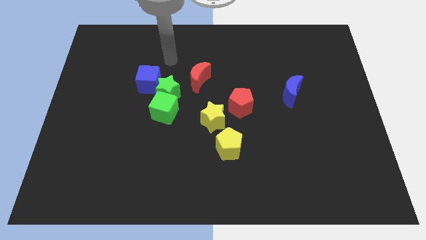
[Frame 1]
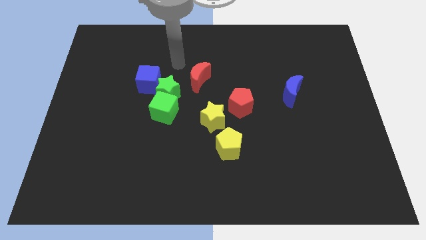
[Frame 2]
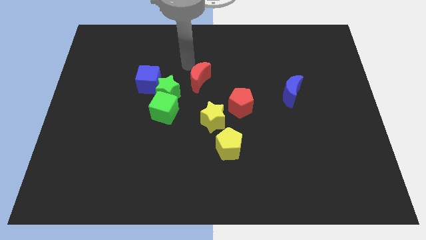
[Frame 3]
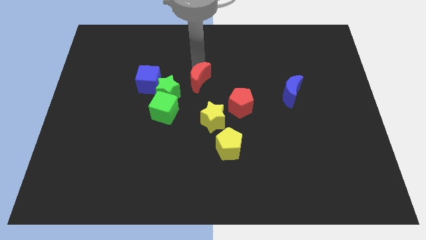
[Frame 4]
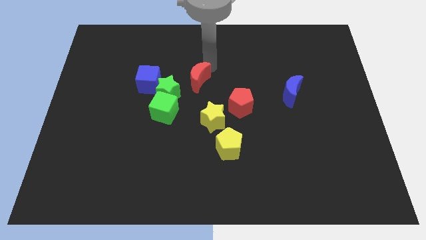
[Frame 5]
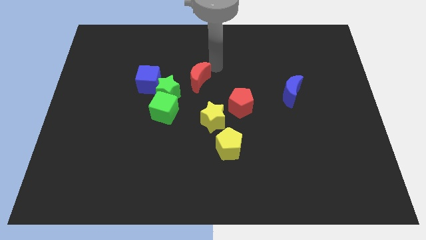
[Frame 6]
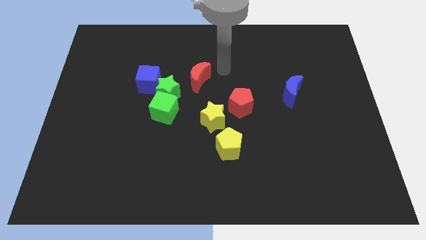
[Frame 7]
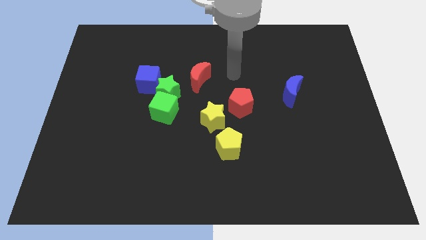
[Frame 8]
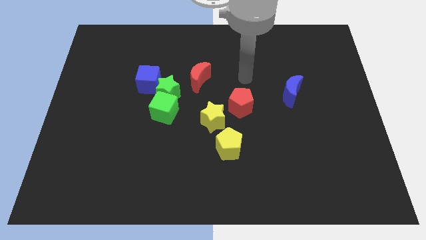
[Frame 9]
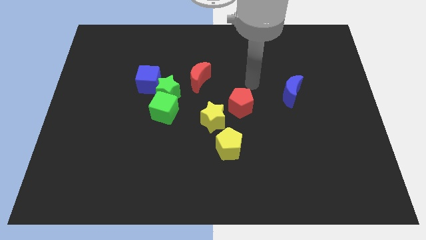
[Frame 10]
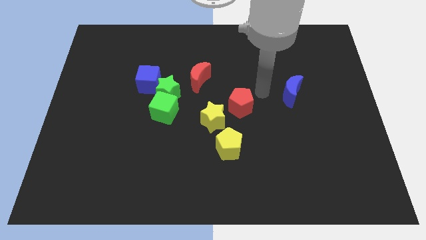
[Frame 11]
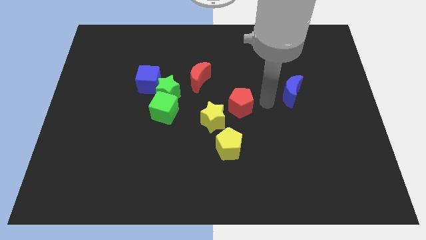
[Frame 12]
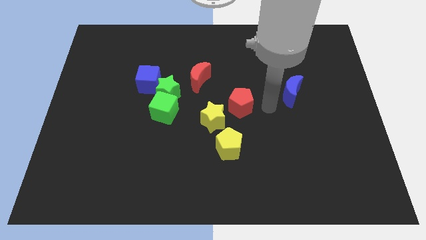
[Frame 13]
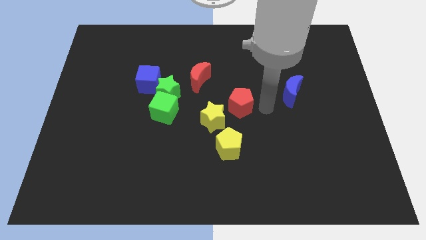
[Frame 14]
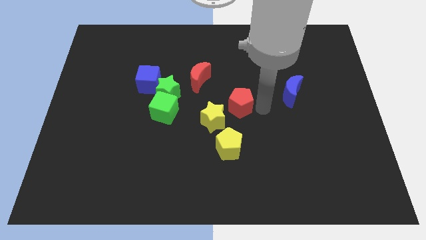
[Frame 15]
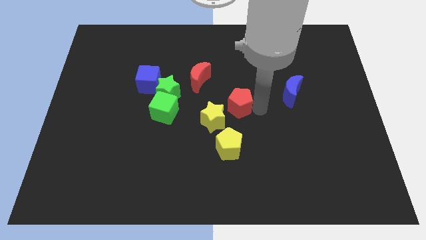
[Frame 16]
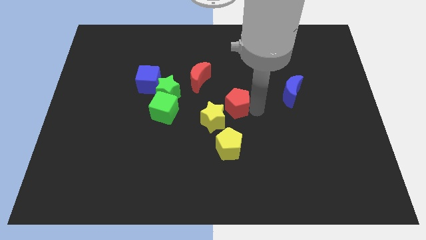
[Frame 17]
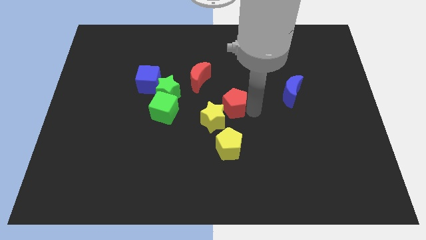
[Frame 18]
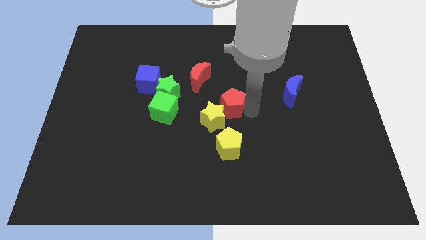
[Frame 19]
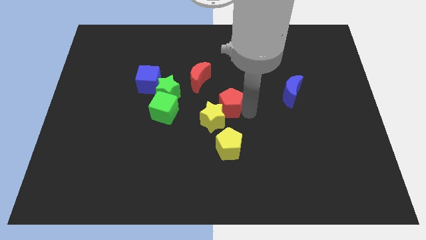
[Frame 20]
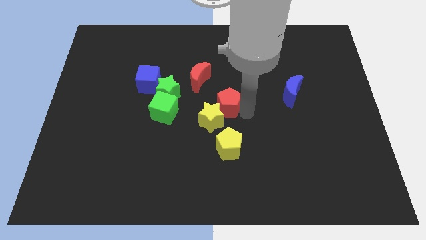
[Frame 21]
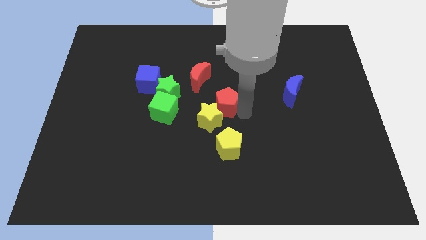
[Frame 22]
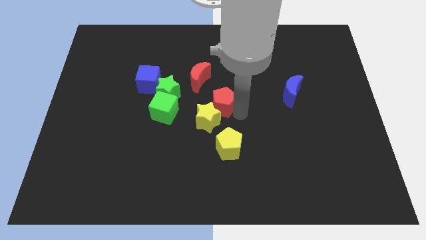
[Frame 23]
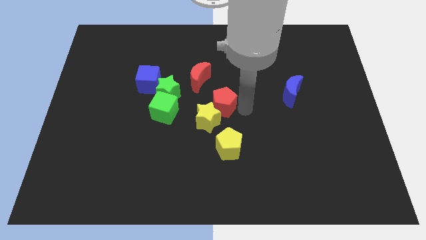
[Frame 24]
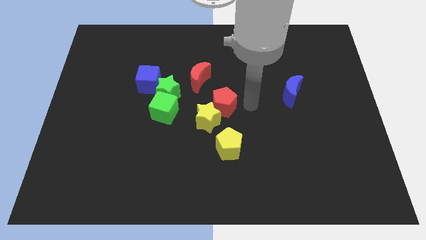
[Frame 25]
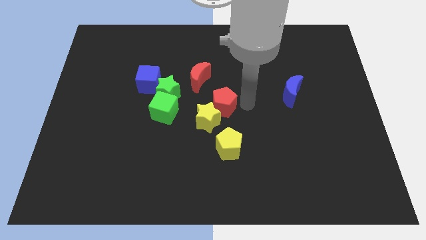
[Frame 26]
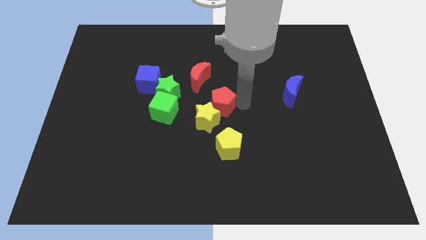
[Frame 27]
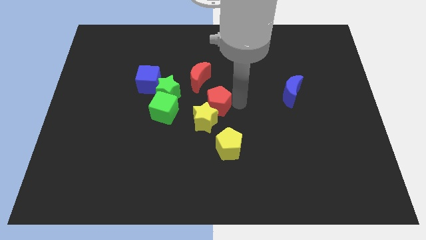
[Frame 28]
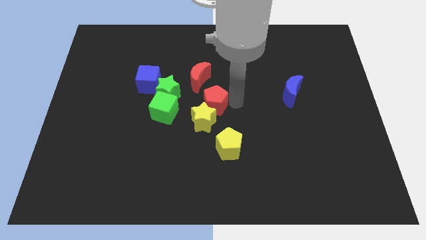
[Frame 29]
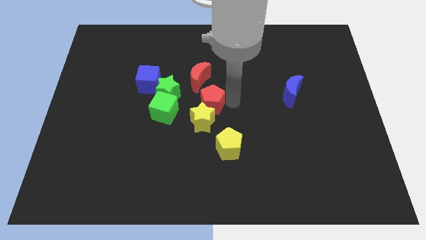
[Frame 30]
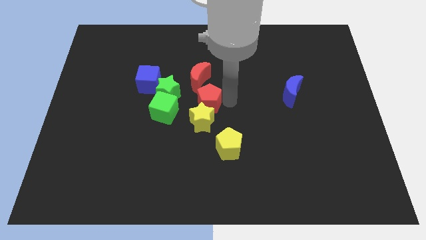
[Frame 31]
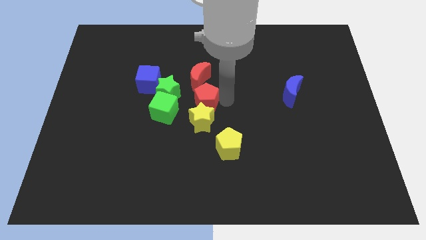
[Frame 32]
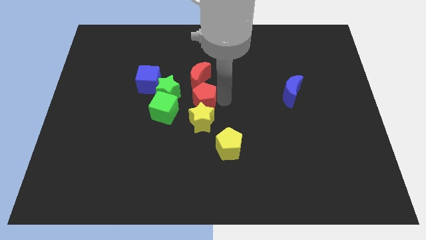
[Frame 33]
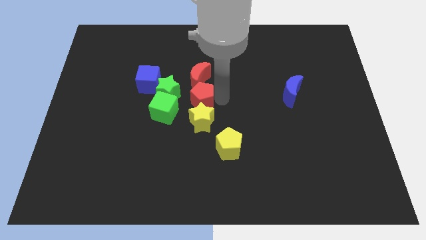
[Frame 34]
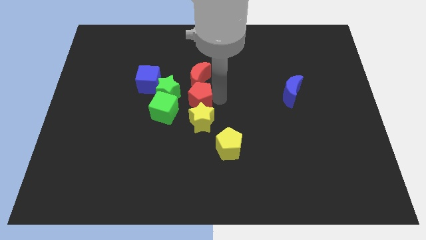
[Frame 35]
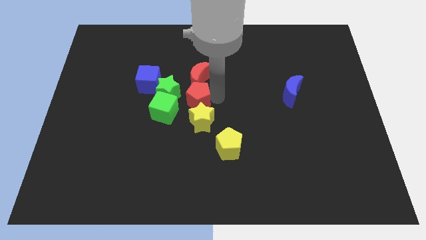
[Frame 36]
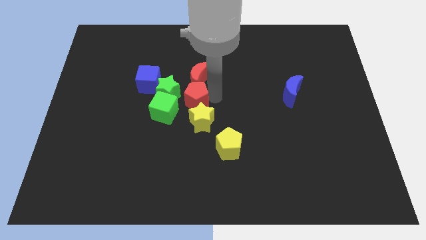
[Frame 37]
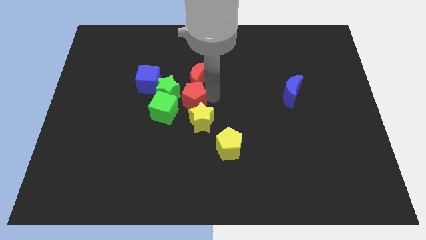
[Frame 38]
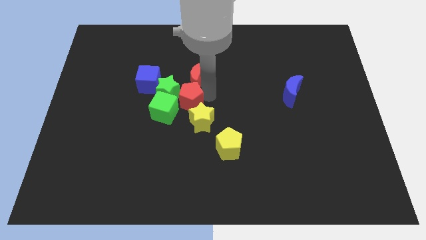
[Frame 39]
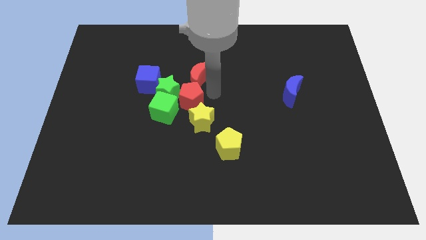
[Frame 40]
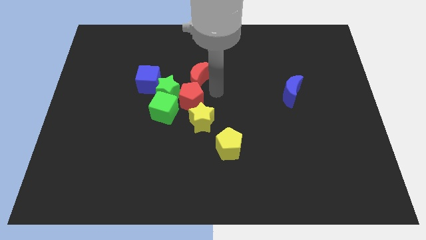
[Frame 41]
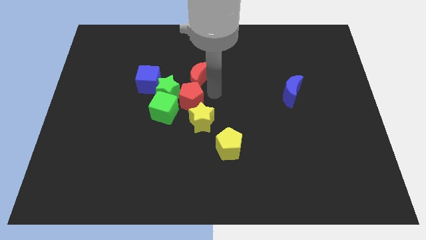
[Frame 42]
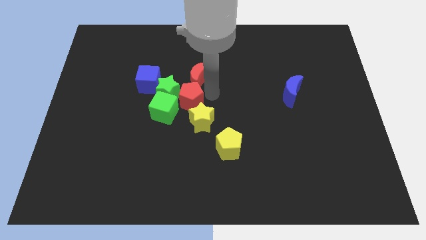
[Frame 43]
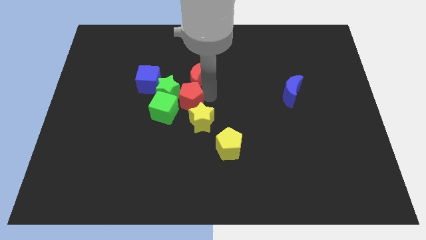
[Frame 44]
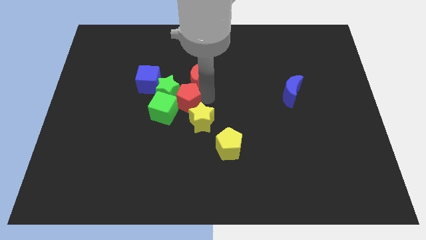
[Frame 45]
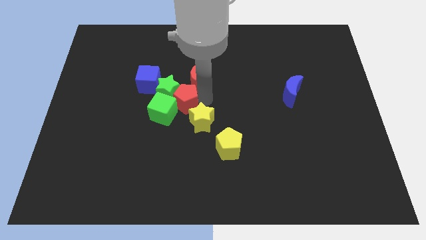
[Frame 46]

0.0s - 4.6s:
slide the red pentagon next to the green cube

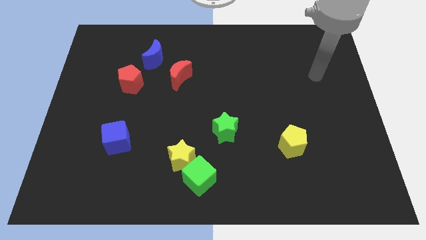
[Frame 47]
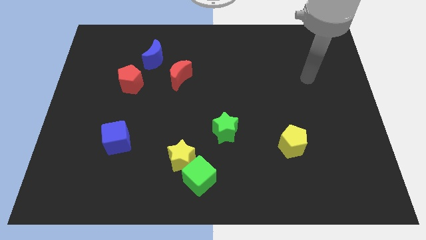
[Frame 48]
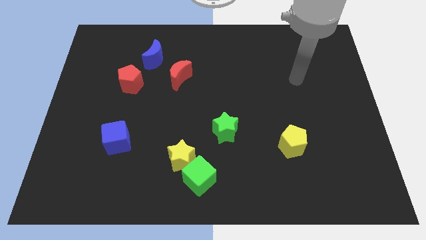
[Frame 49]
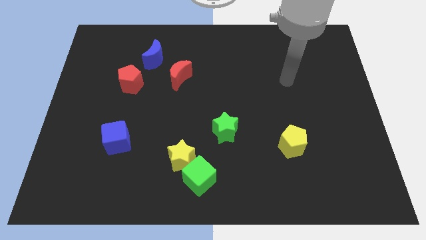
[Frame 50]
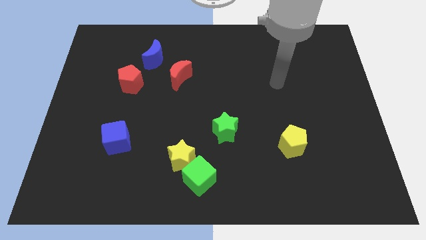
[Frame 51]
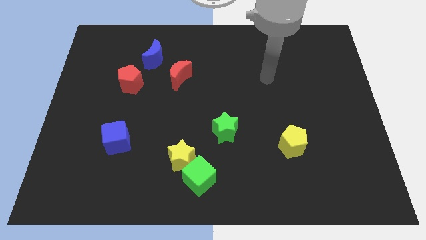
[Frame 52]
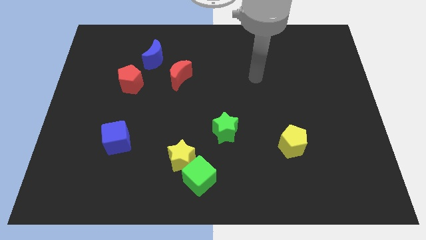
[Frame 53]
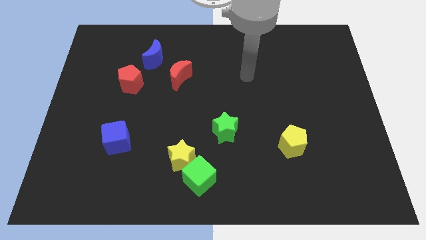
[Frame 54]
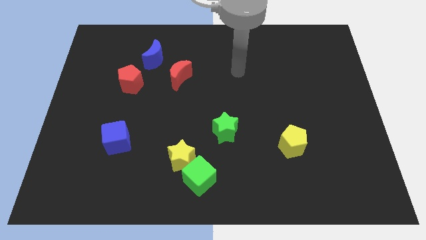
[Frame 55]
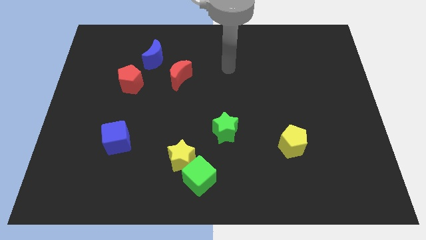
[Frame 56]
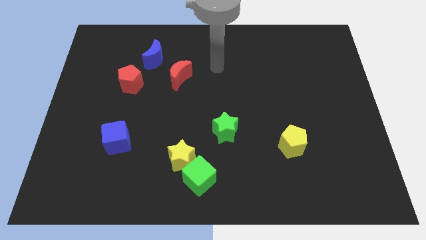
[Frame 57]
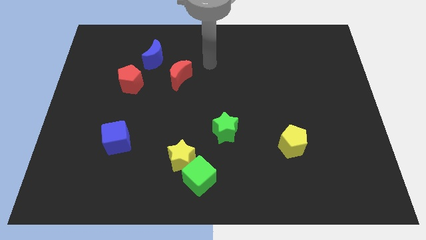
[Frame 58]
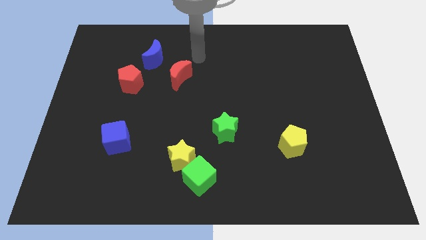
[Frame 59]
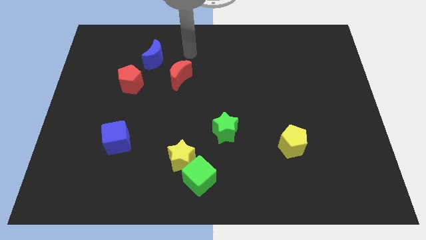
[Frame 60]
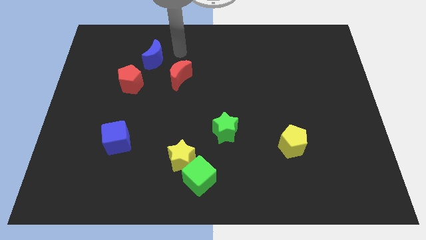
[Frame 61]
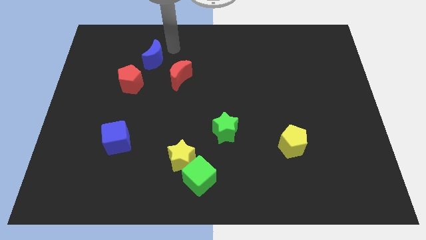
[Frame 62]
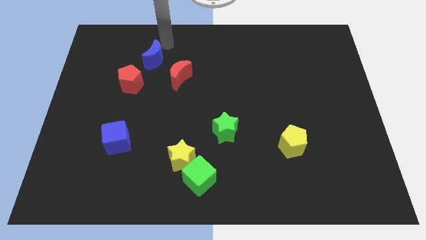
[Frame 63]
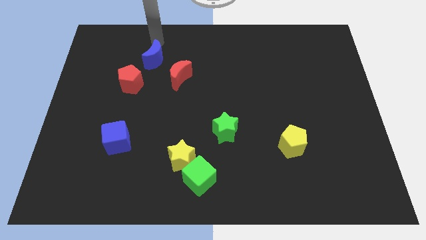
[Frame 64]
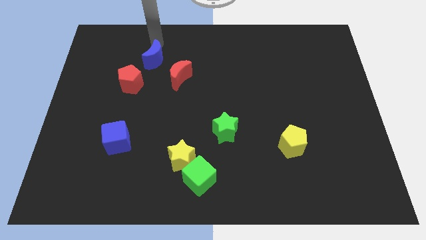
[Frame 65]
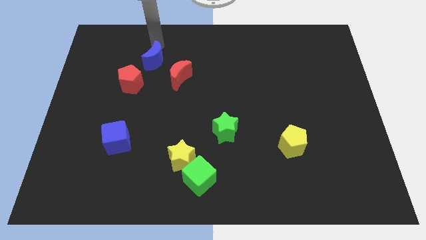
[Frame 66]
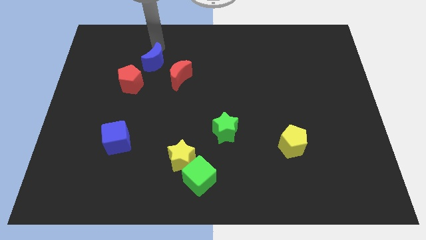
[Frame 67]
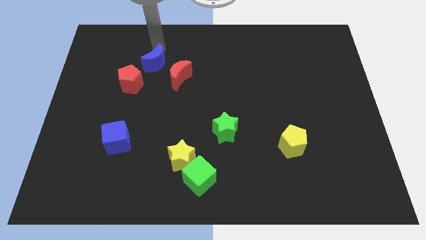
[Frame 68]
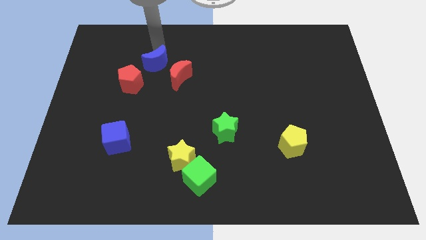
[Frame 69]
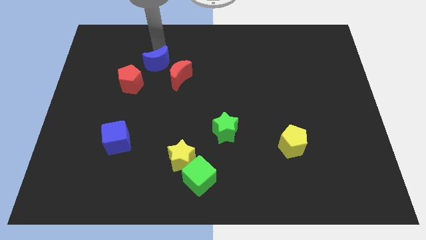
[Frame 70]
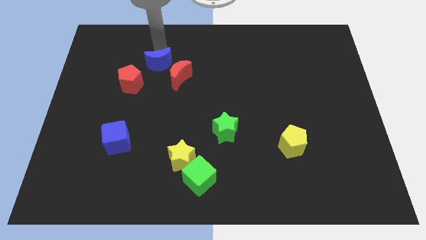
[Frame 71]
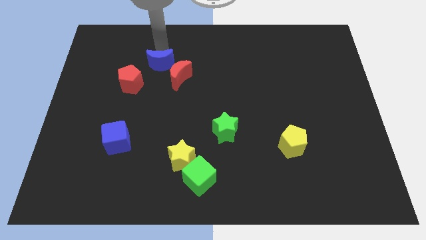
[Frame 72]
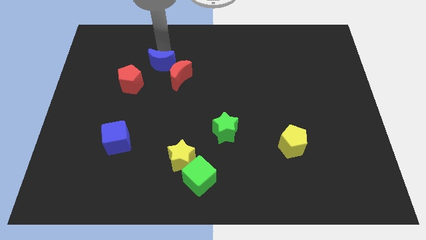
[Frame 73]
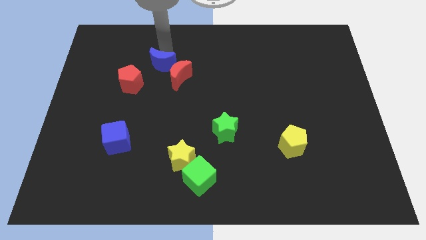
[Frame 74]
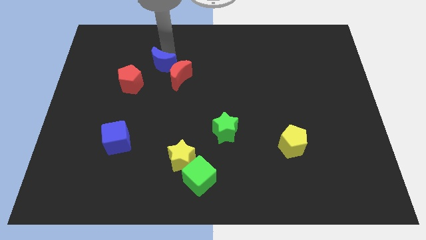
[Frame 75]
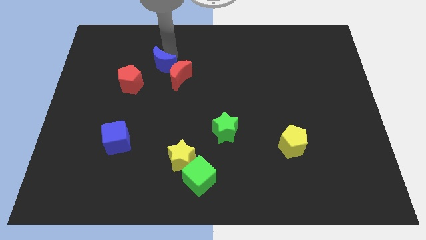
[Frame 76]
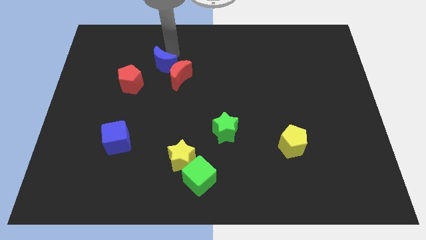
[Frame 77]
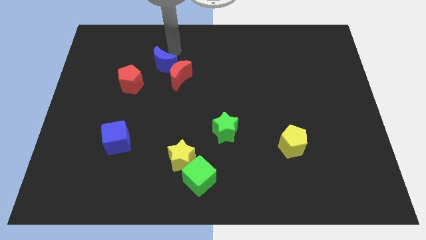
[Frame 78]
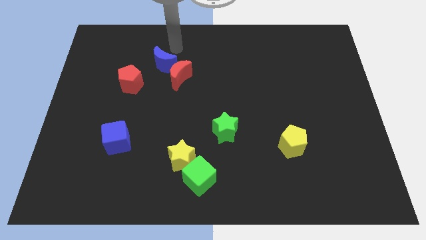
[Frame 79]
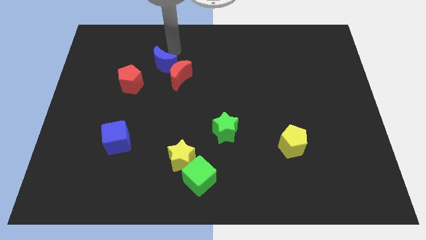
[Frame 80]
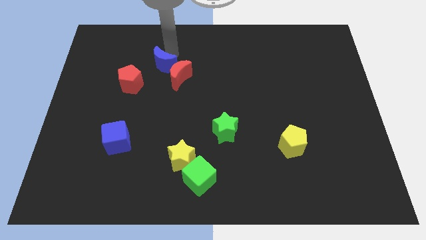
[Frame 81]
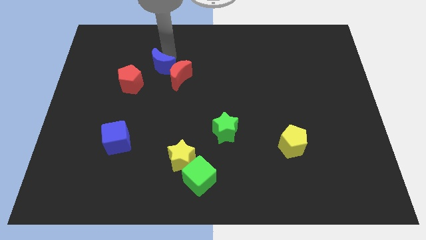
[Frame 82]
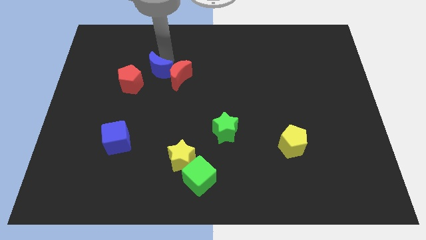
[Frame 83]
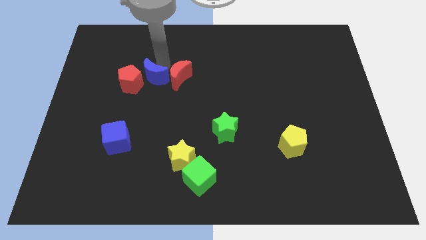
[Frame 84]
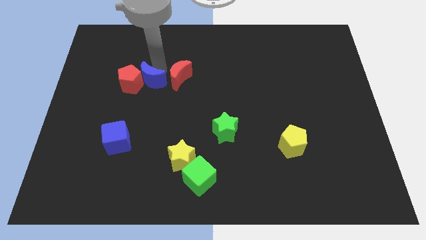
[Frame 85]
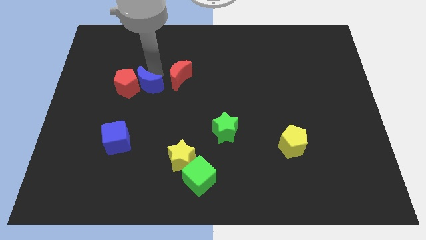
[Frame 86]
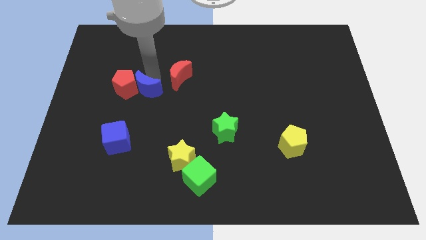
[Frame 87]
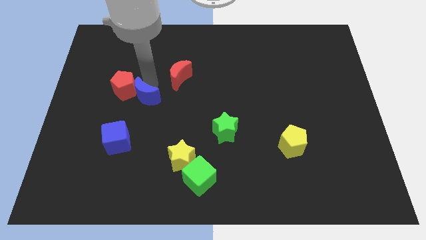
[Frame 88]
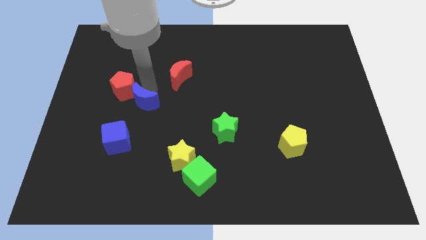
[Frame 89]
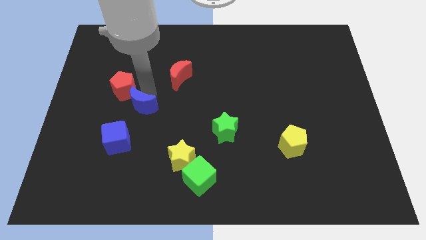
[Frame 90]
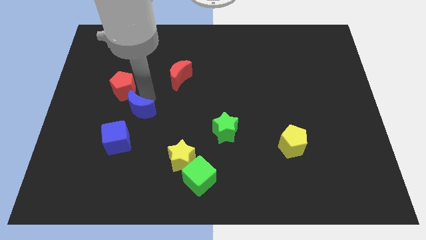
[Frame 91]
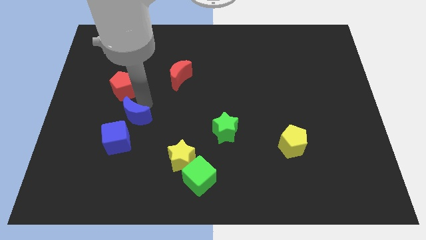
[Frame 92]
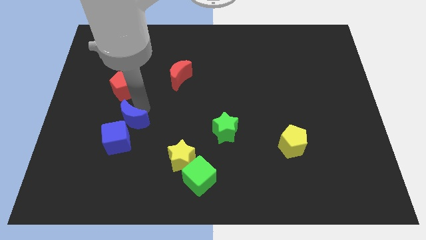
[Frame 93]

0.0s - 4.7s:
slide the blue moon next to the blue cube
